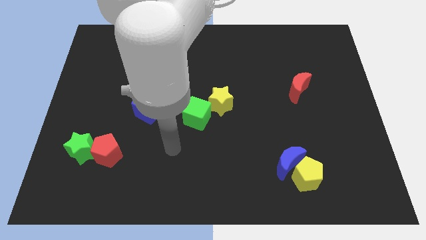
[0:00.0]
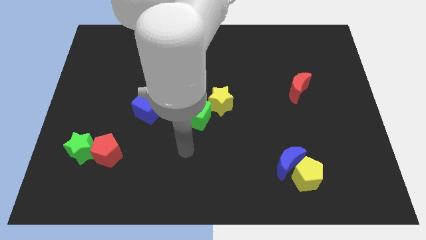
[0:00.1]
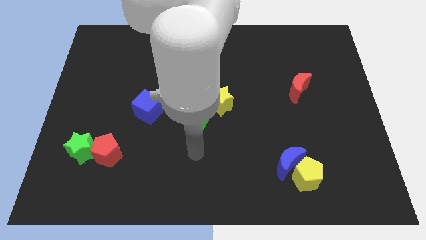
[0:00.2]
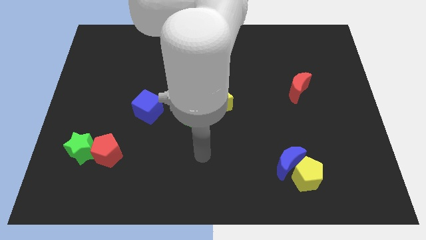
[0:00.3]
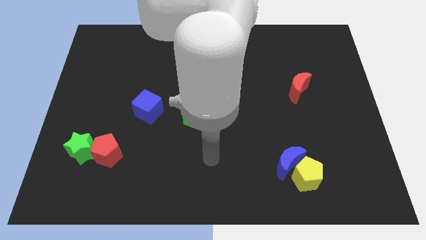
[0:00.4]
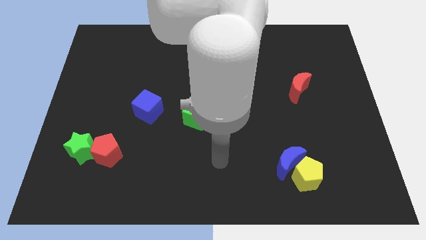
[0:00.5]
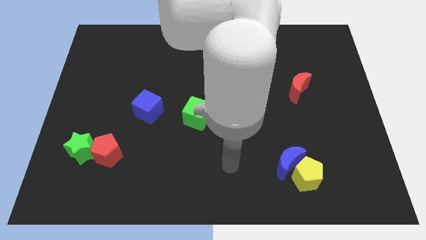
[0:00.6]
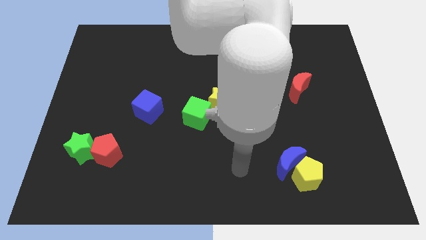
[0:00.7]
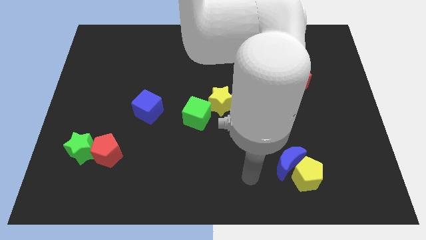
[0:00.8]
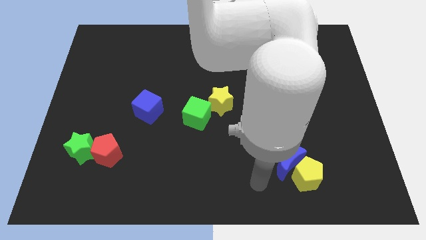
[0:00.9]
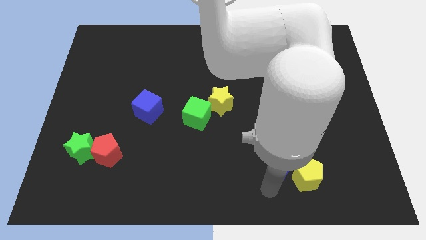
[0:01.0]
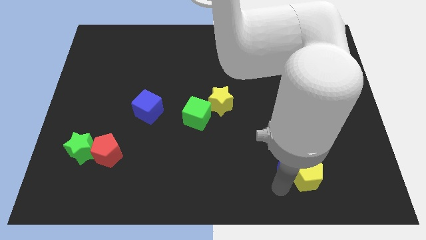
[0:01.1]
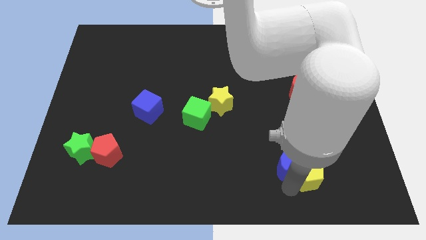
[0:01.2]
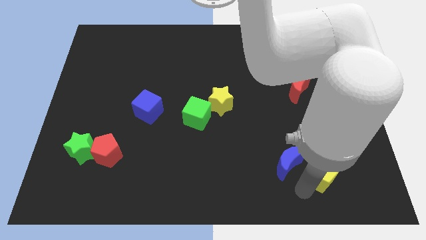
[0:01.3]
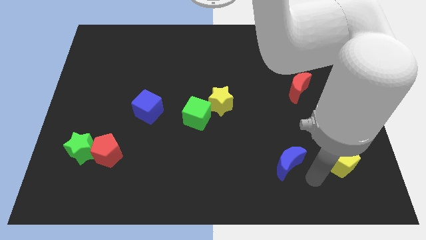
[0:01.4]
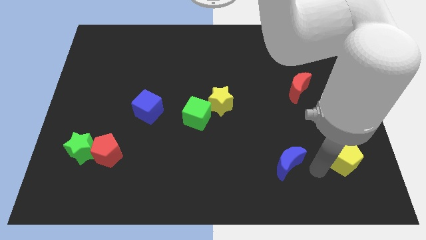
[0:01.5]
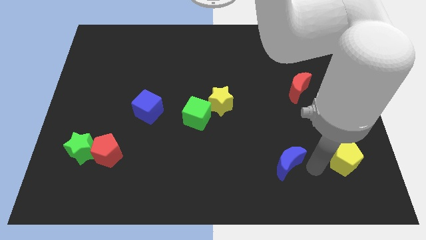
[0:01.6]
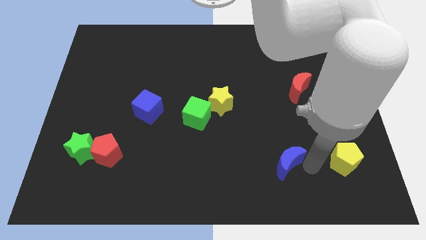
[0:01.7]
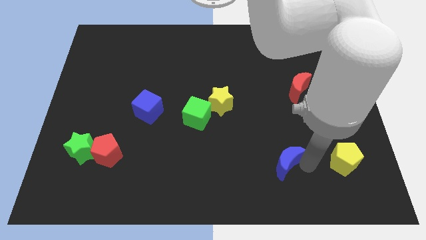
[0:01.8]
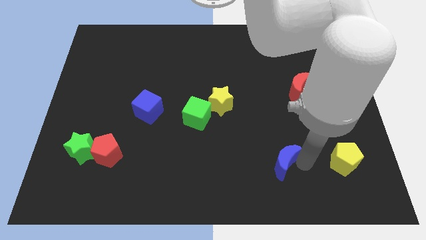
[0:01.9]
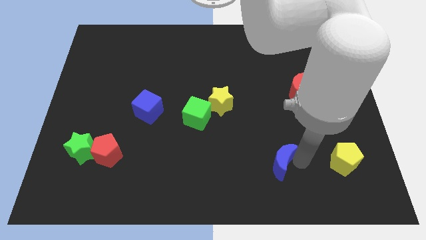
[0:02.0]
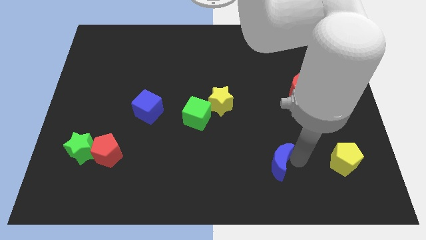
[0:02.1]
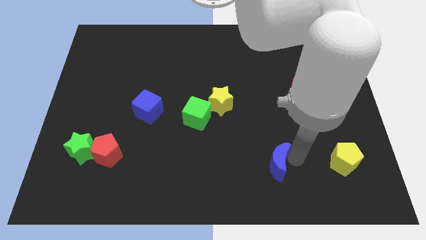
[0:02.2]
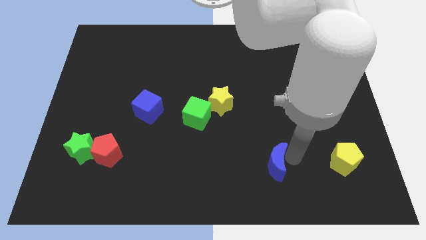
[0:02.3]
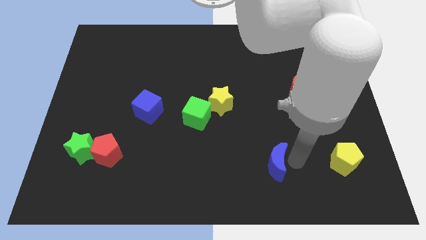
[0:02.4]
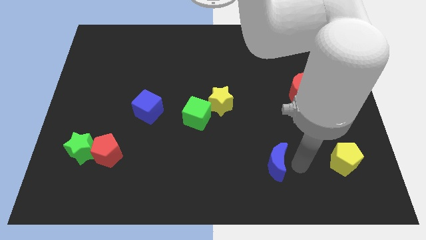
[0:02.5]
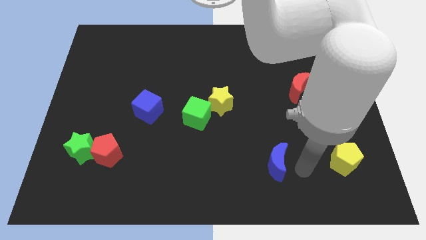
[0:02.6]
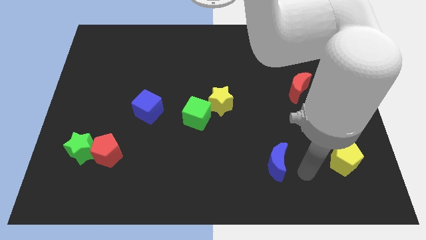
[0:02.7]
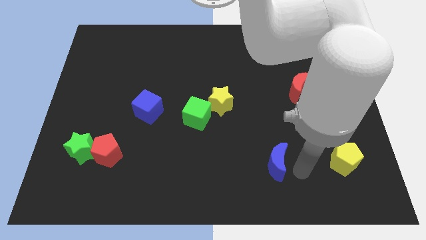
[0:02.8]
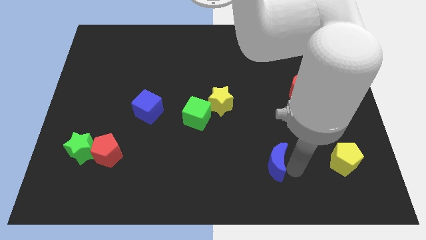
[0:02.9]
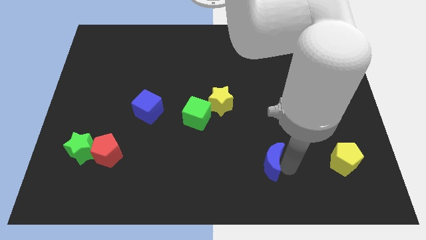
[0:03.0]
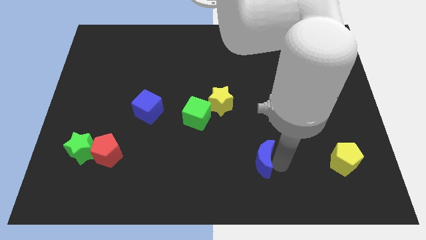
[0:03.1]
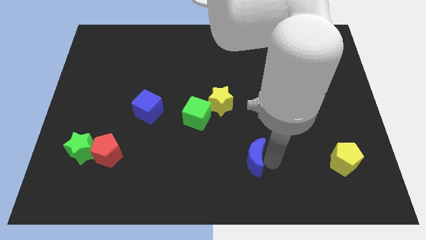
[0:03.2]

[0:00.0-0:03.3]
slightly push the blue moon left

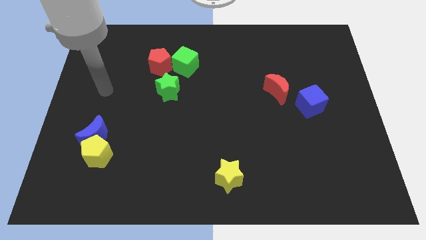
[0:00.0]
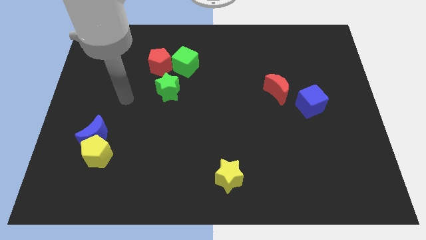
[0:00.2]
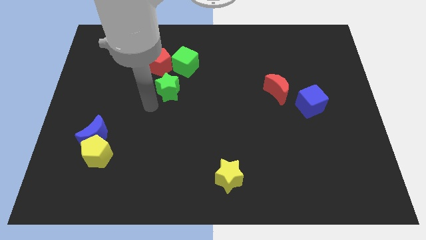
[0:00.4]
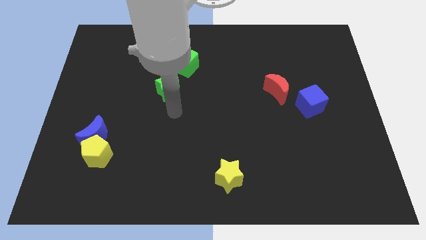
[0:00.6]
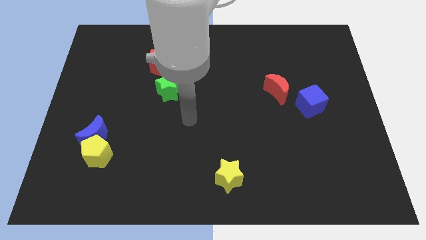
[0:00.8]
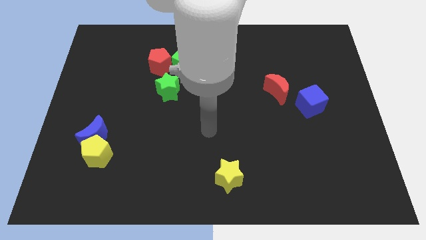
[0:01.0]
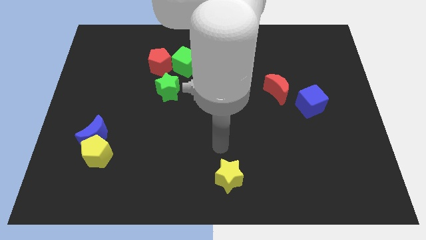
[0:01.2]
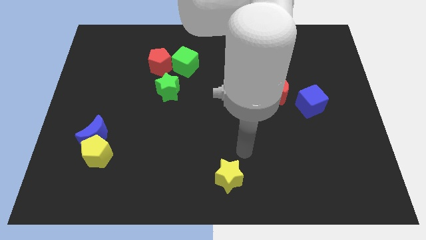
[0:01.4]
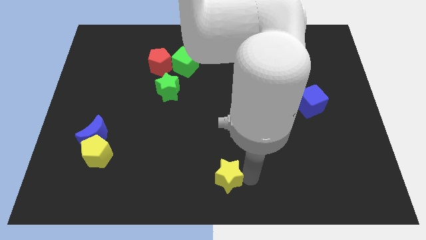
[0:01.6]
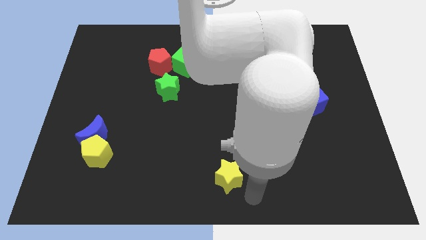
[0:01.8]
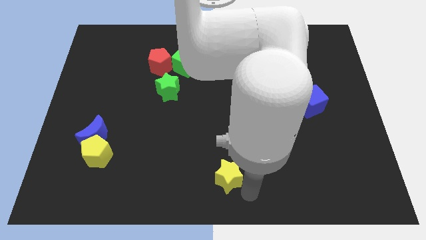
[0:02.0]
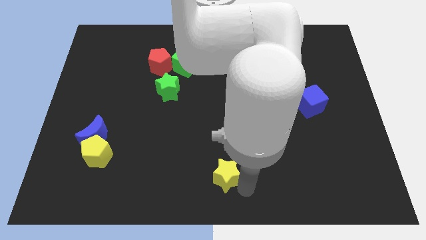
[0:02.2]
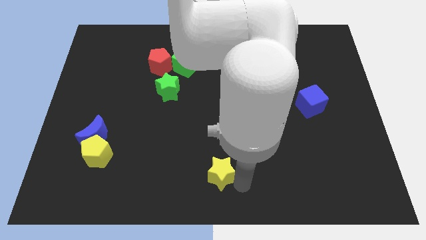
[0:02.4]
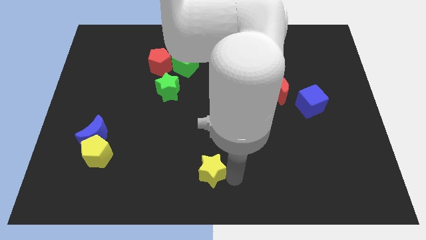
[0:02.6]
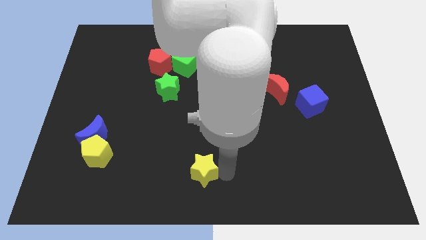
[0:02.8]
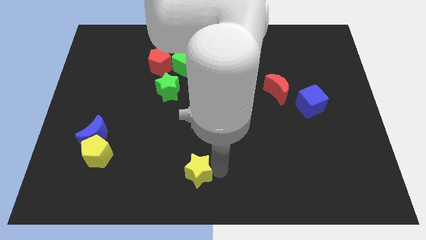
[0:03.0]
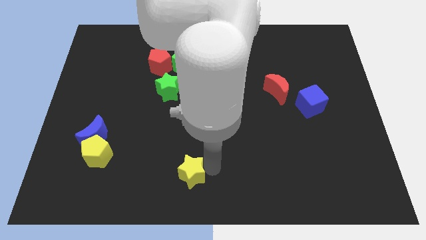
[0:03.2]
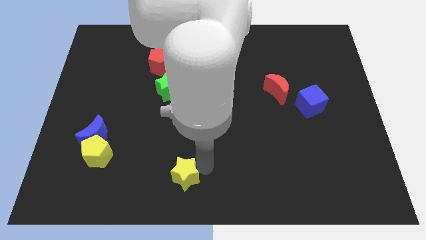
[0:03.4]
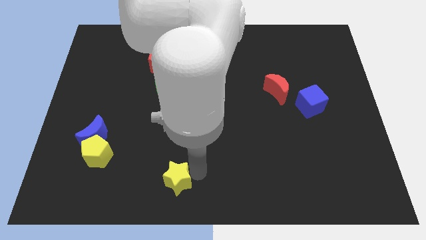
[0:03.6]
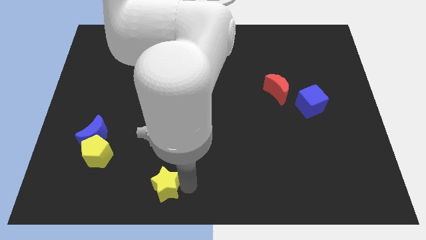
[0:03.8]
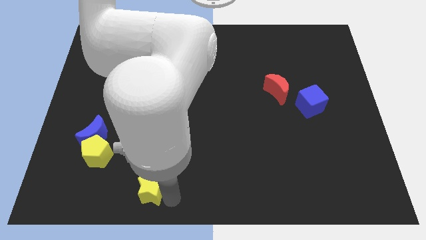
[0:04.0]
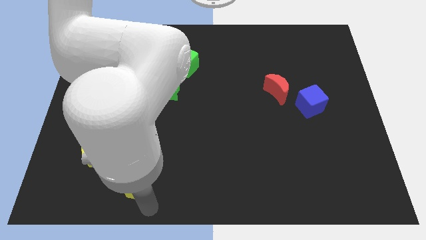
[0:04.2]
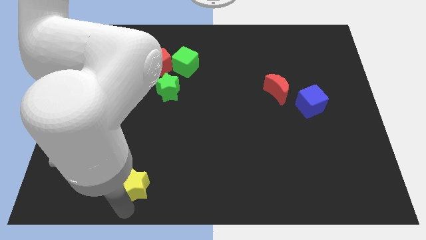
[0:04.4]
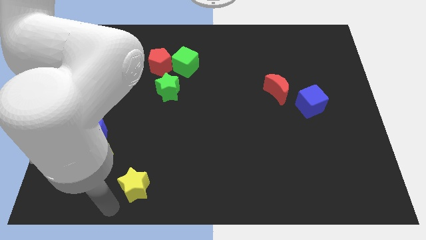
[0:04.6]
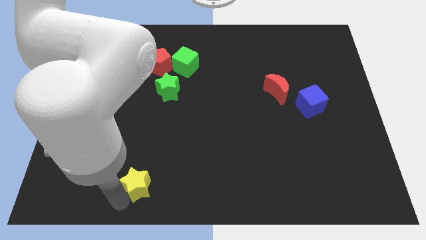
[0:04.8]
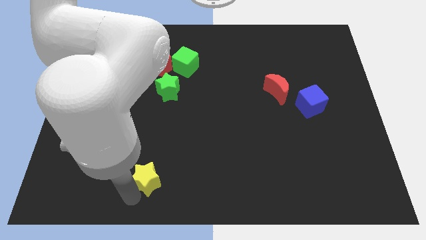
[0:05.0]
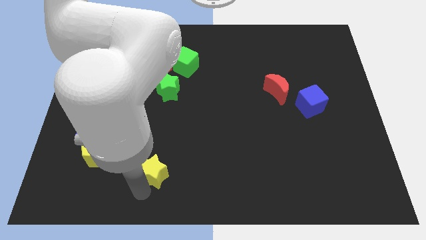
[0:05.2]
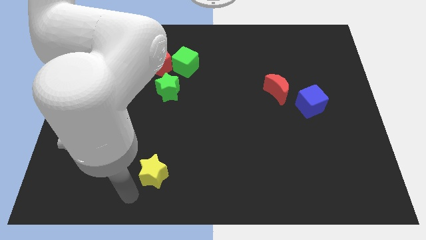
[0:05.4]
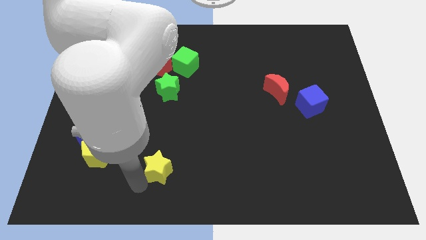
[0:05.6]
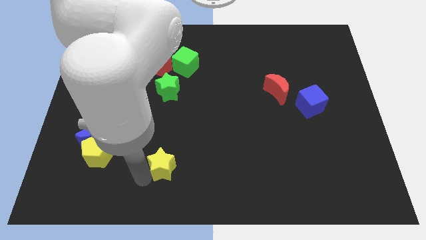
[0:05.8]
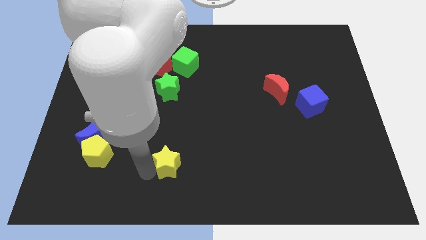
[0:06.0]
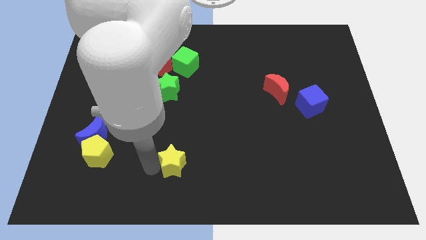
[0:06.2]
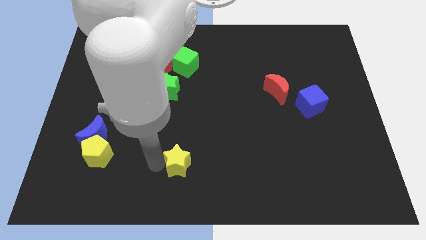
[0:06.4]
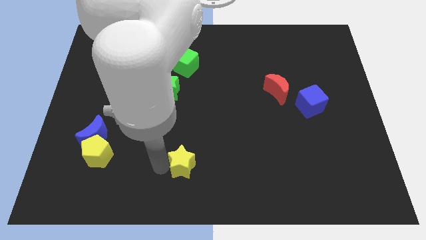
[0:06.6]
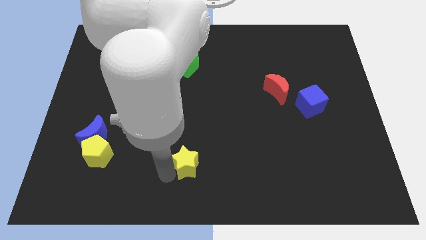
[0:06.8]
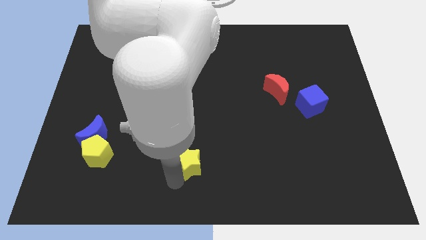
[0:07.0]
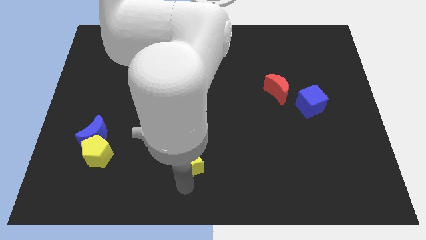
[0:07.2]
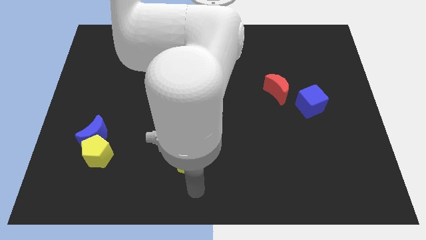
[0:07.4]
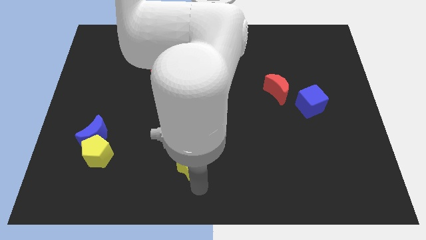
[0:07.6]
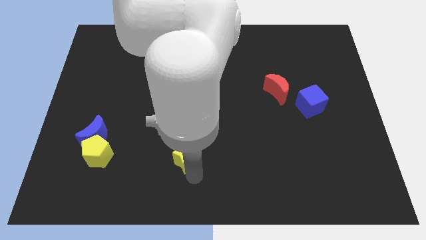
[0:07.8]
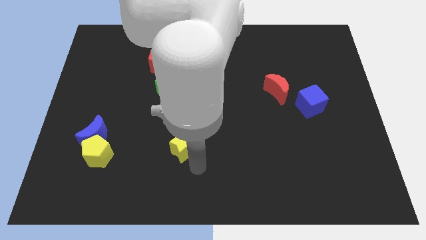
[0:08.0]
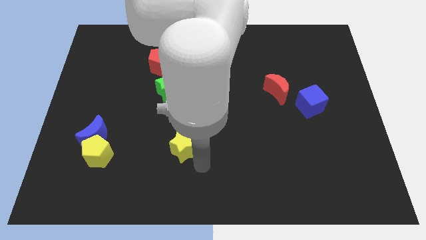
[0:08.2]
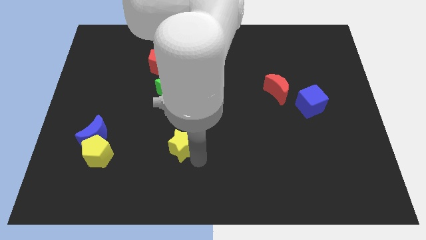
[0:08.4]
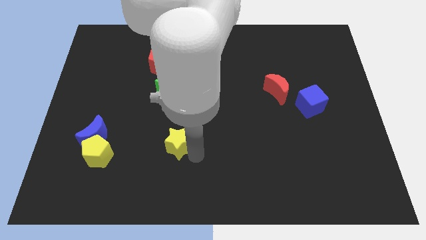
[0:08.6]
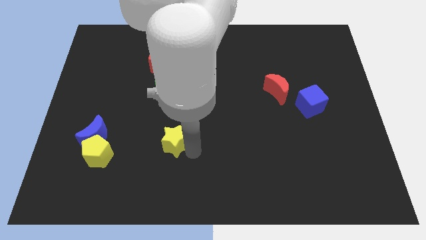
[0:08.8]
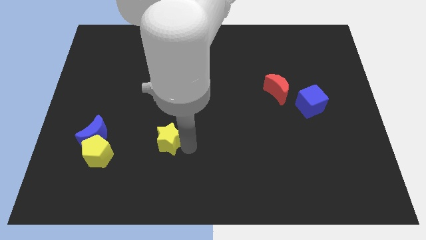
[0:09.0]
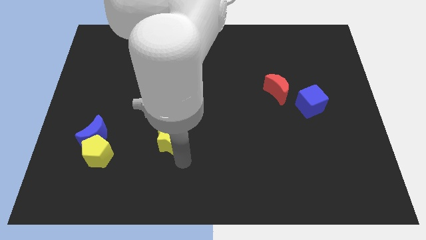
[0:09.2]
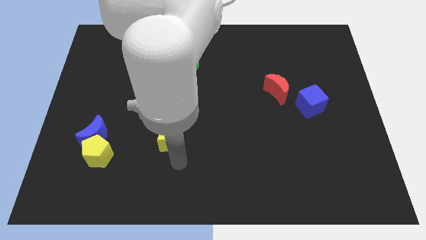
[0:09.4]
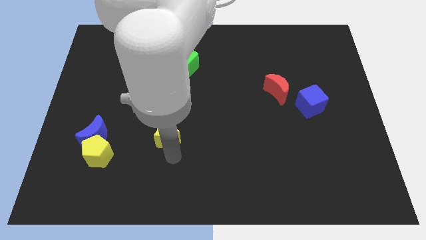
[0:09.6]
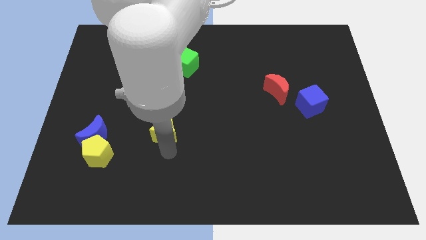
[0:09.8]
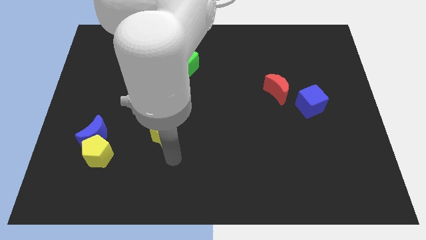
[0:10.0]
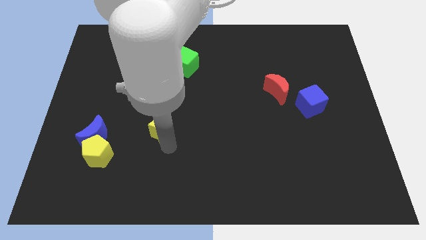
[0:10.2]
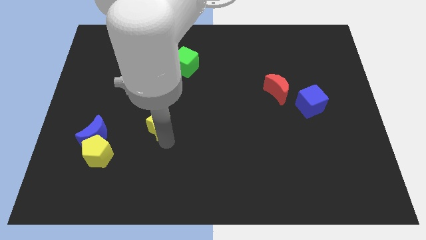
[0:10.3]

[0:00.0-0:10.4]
slide the yellow star diagonally up and to the left
